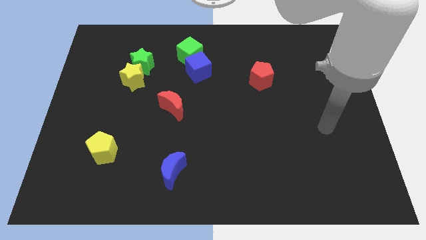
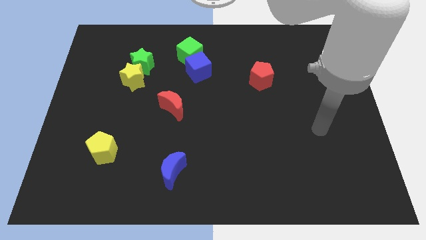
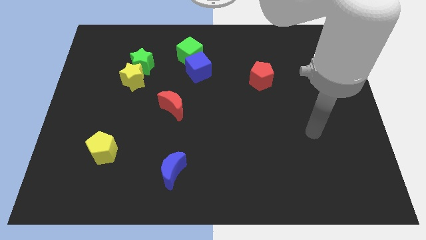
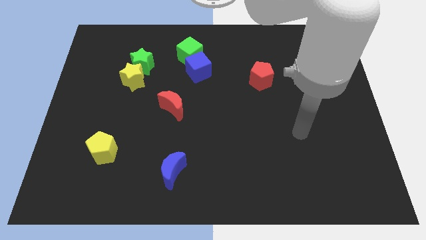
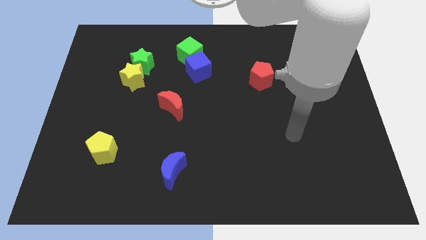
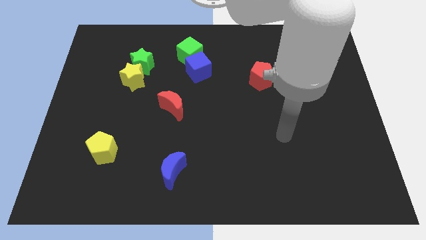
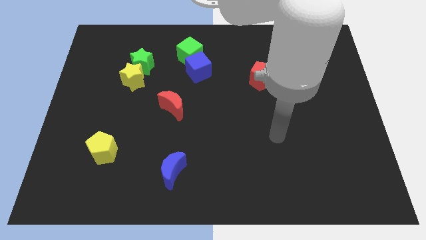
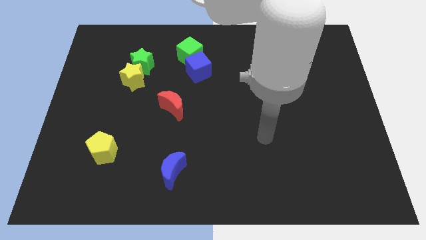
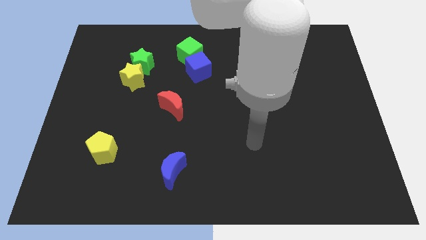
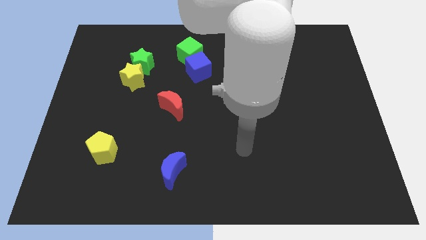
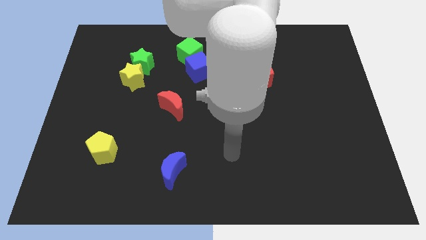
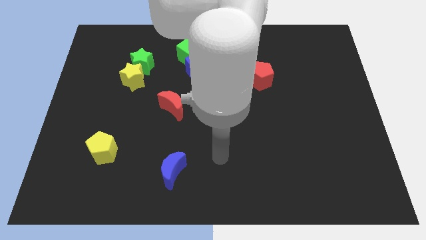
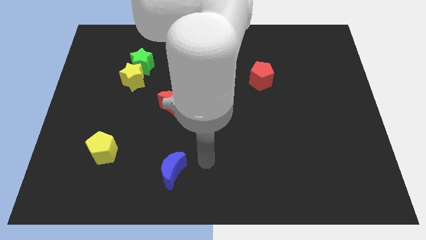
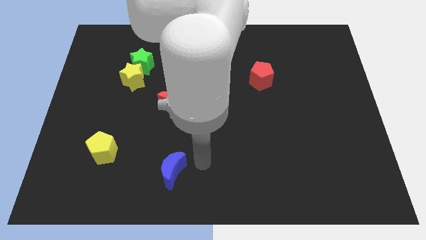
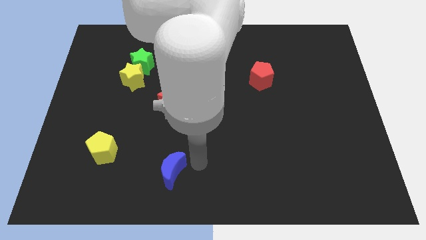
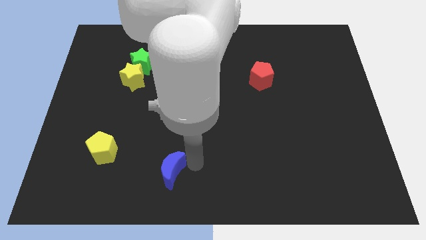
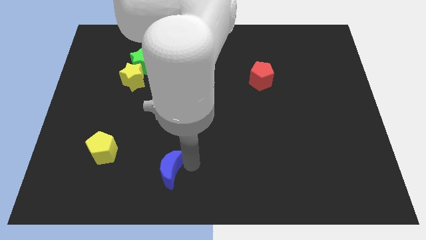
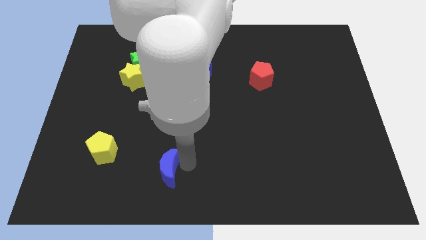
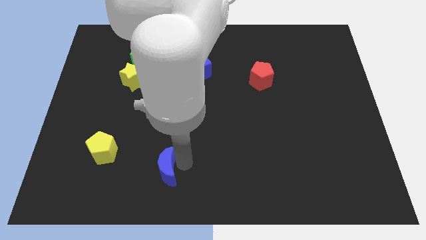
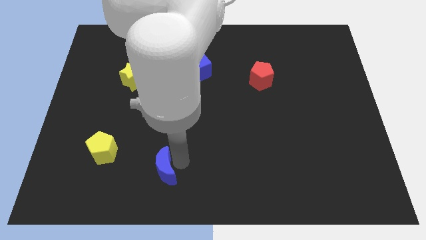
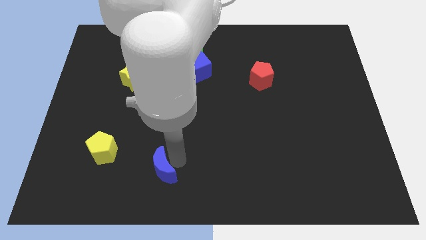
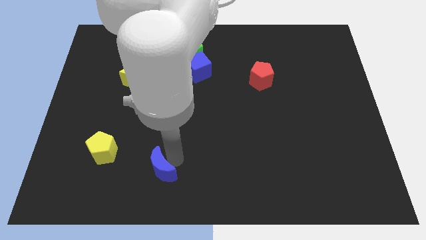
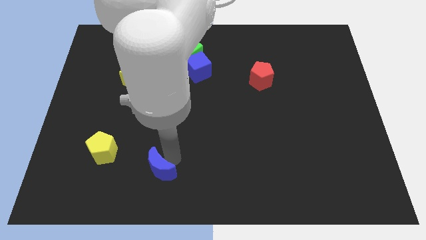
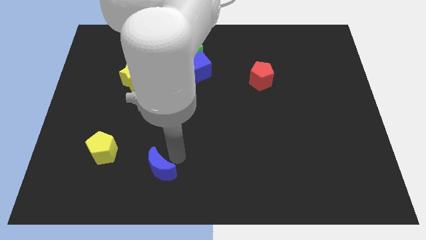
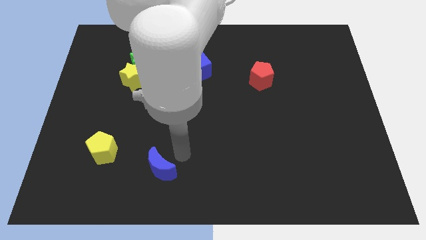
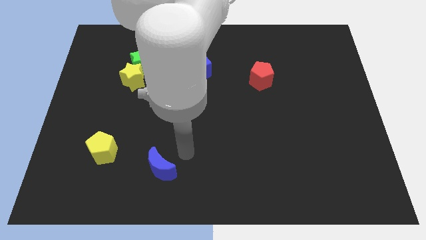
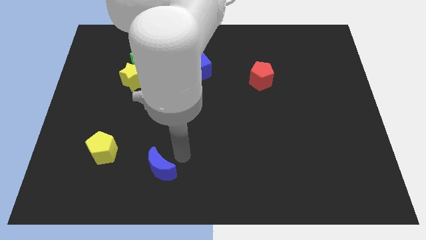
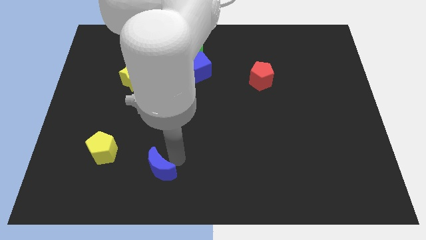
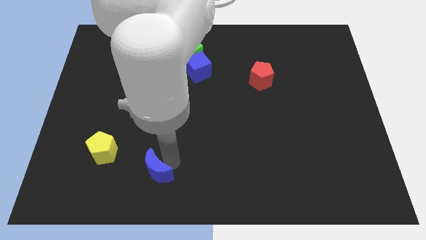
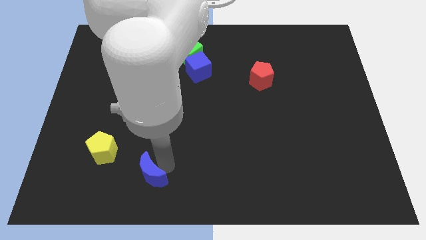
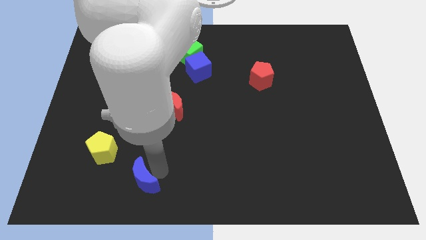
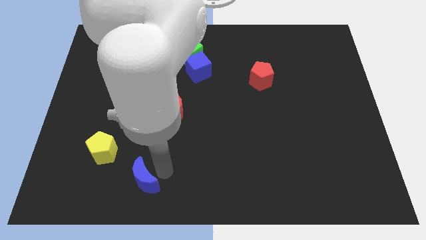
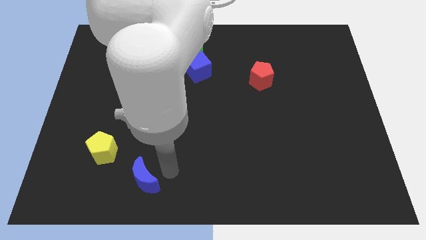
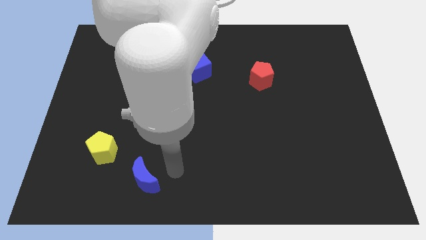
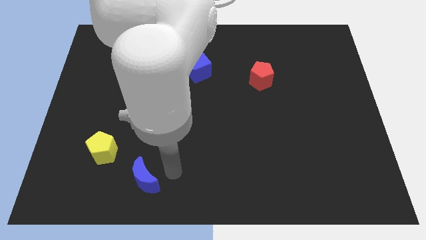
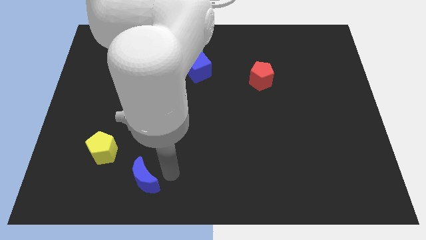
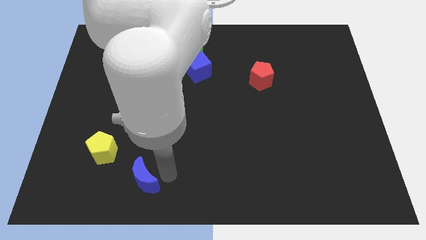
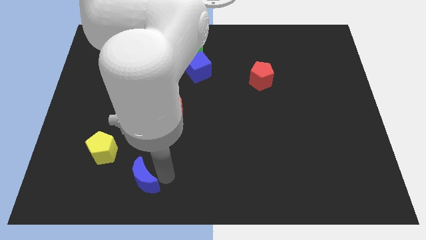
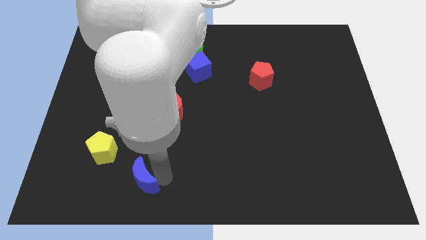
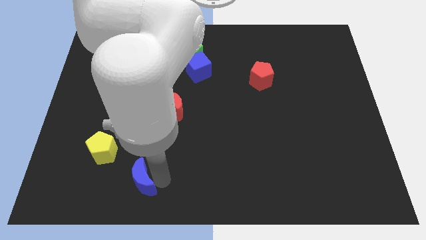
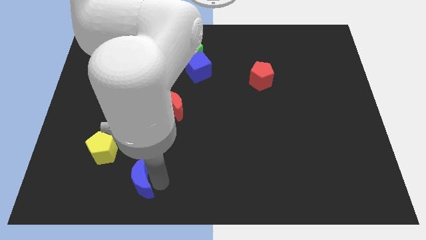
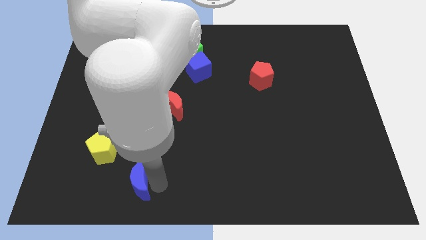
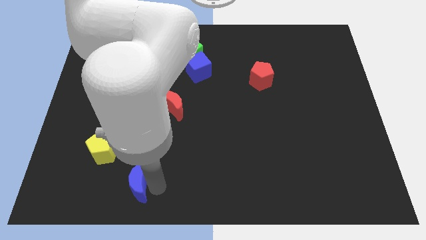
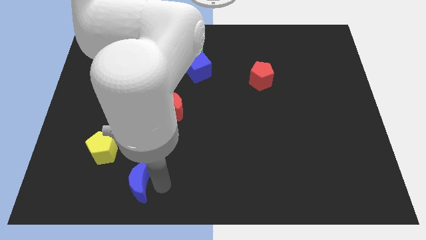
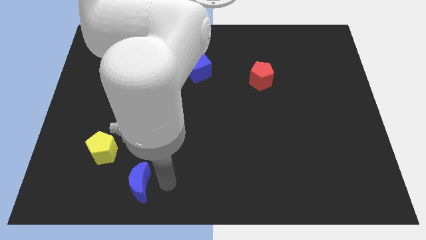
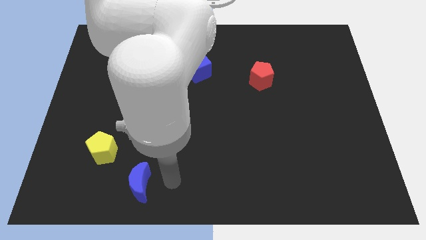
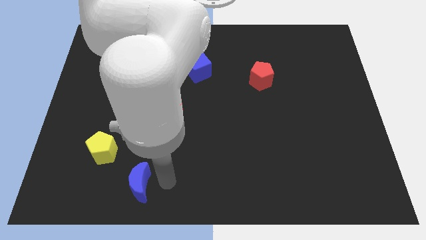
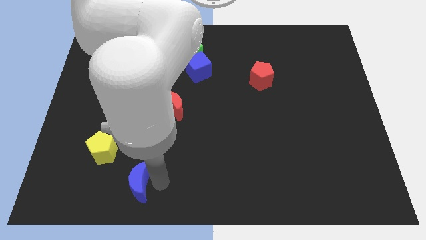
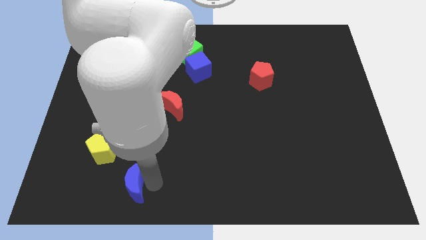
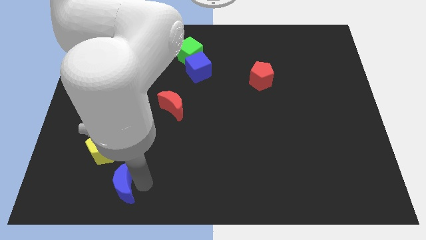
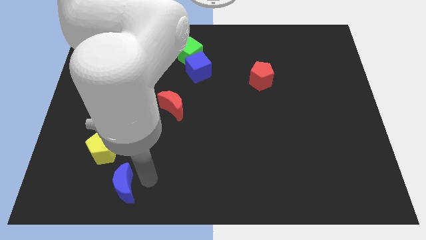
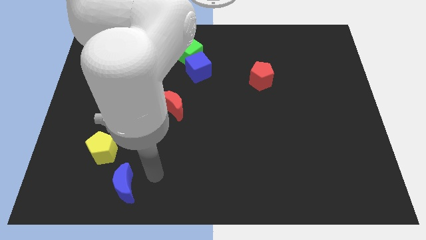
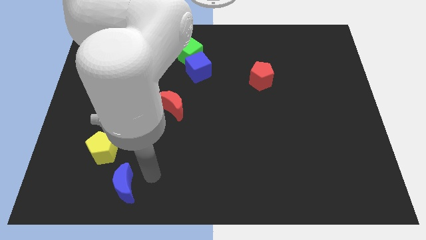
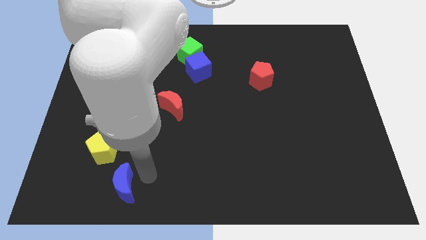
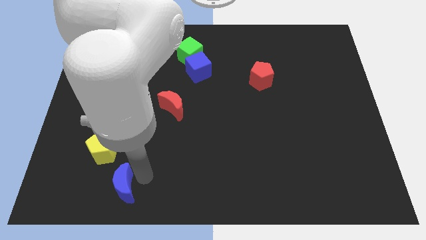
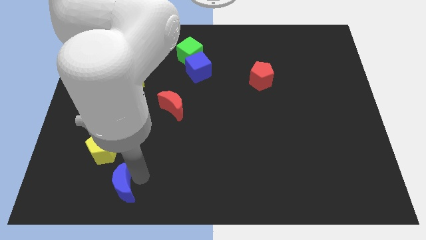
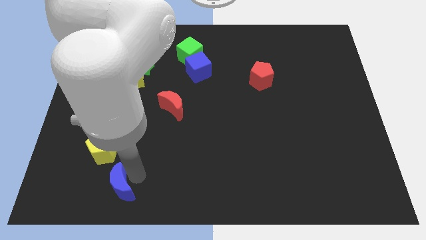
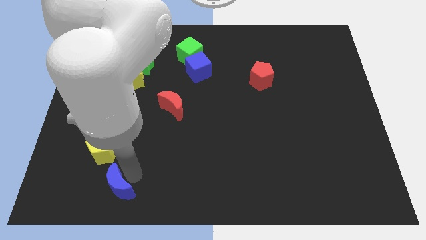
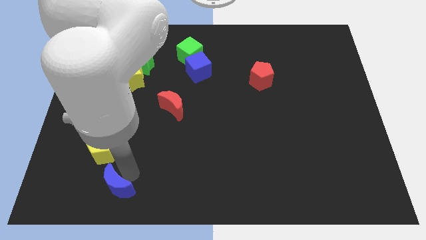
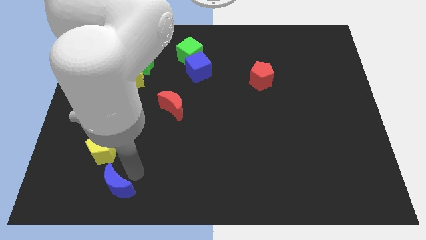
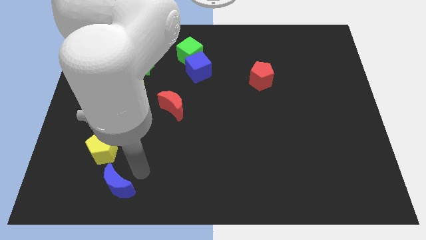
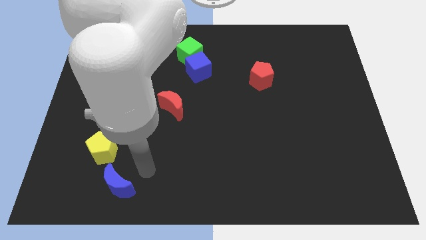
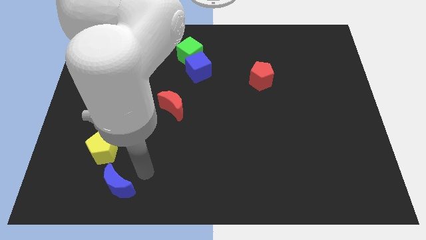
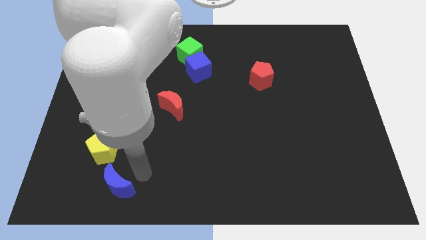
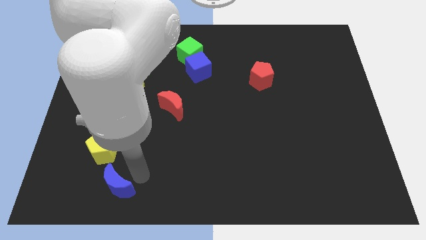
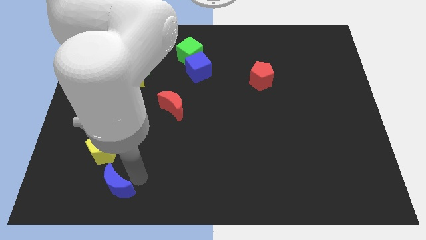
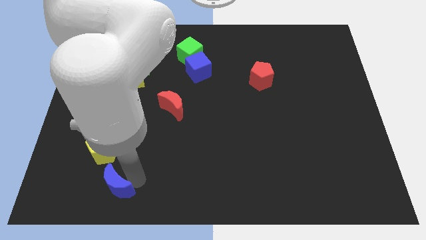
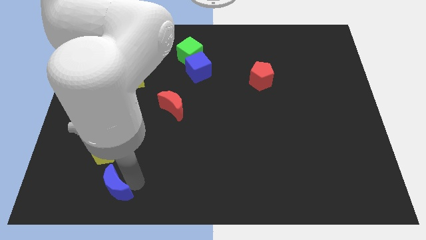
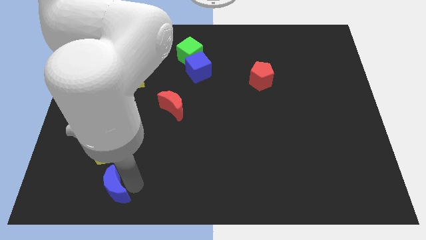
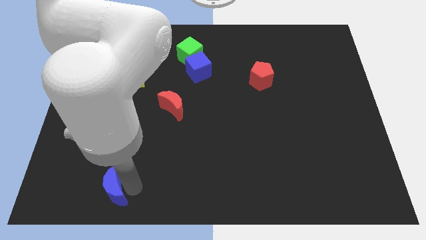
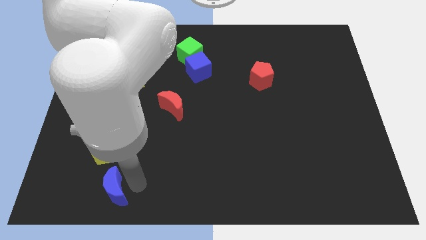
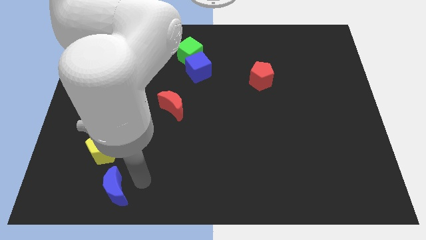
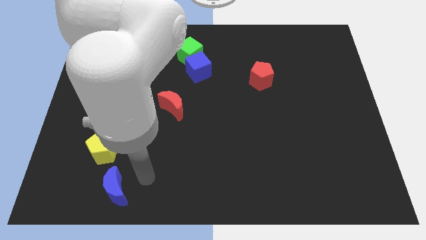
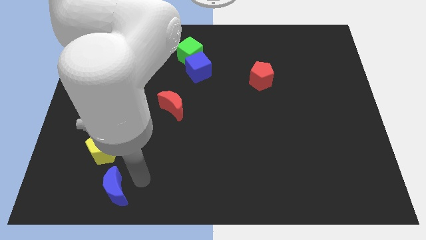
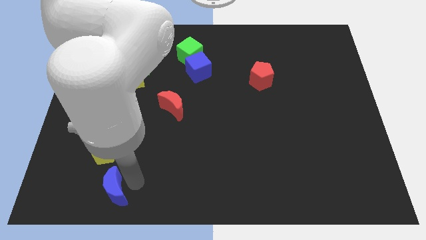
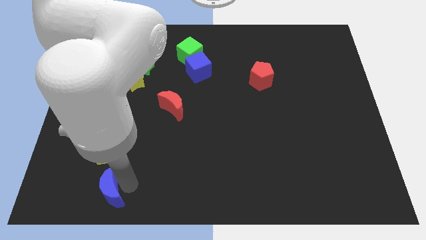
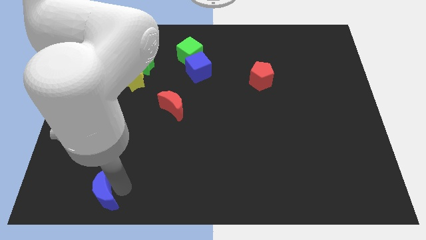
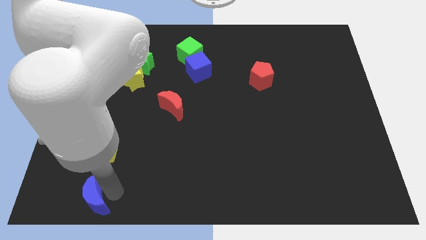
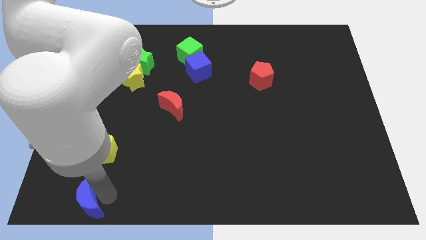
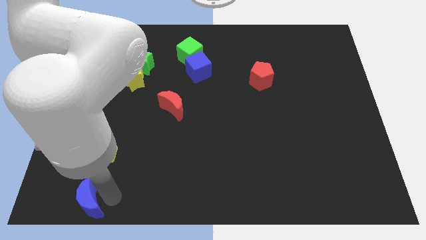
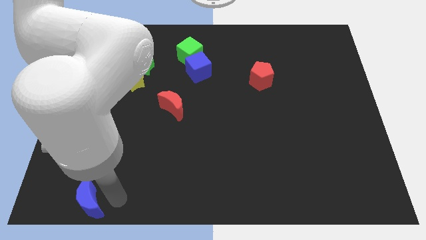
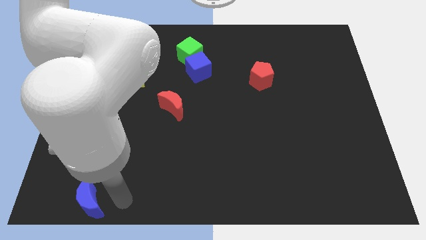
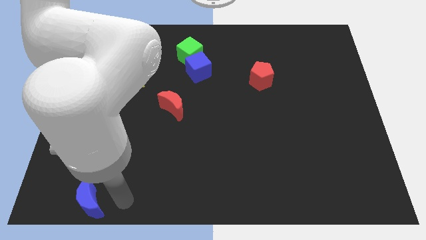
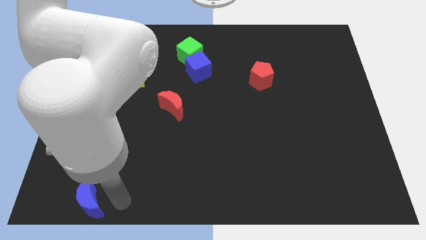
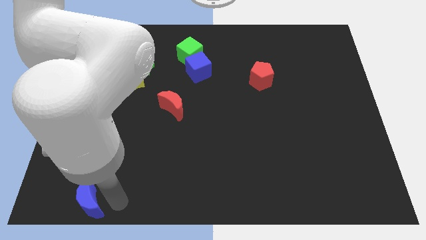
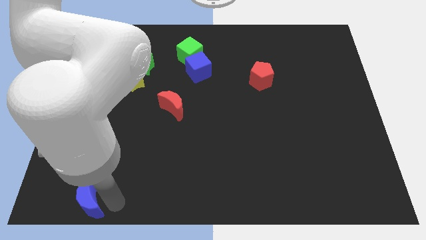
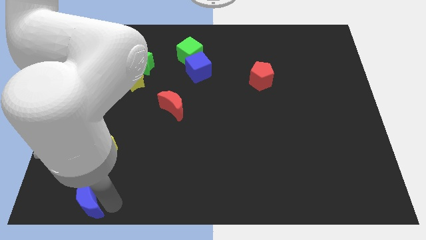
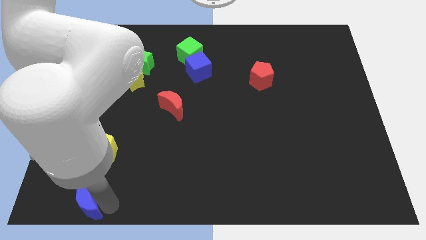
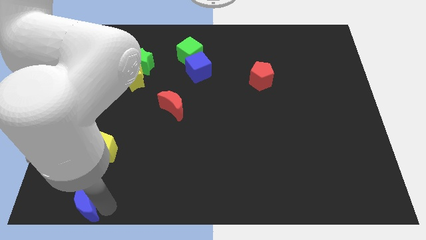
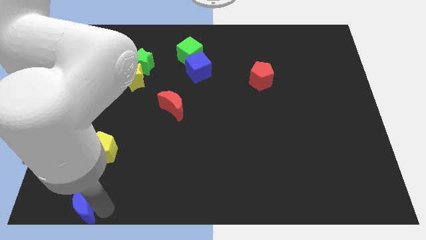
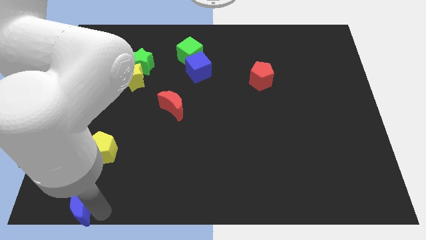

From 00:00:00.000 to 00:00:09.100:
push the blue moon to the bottom left
